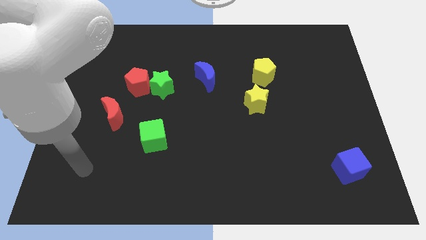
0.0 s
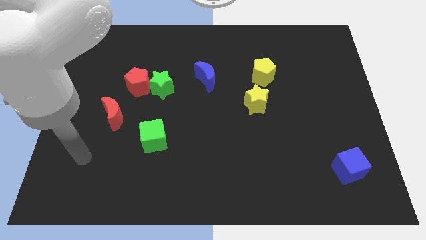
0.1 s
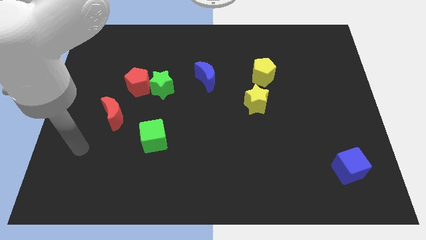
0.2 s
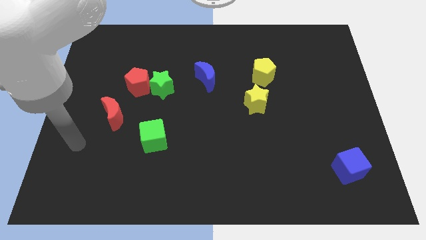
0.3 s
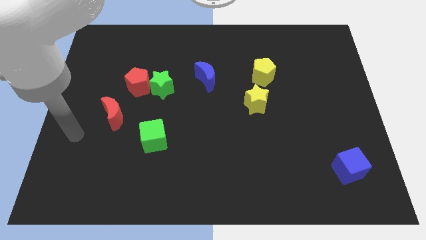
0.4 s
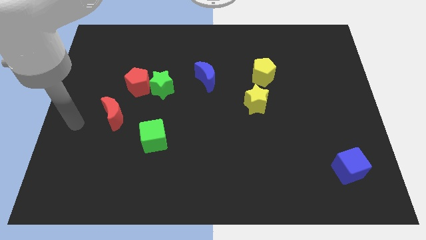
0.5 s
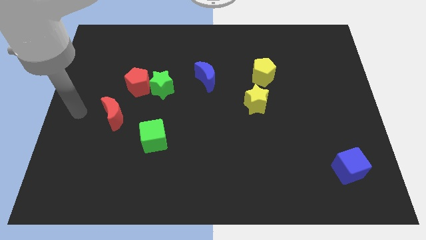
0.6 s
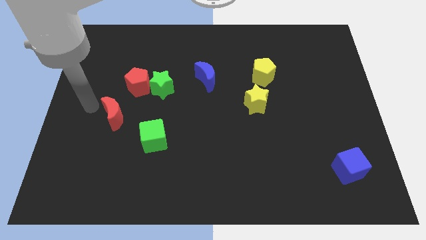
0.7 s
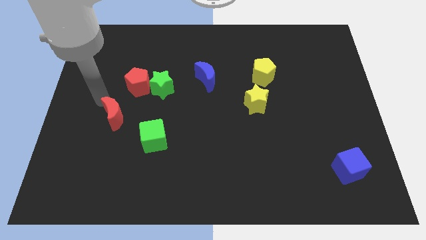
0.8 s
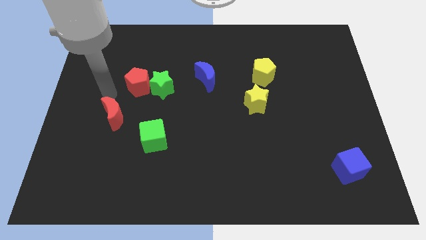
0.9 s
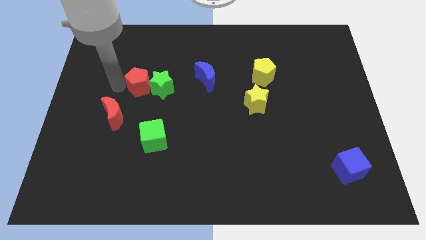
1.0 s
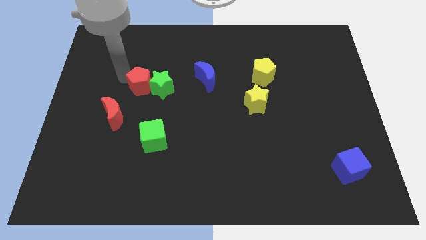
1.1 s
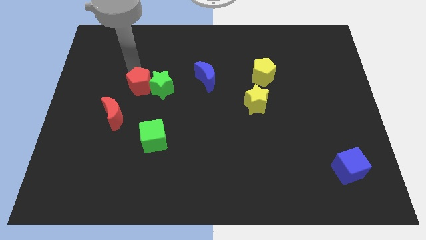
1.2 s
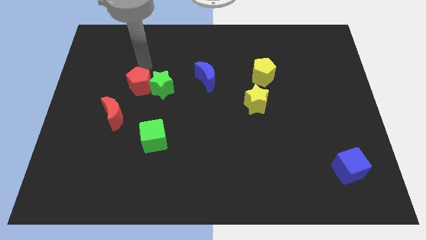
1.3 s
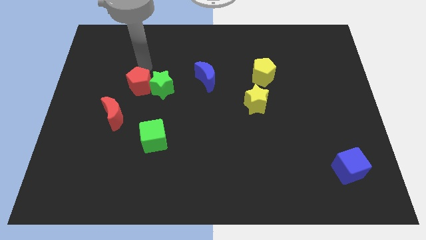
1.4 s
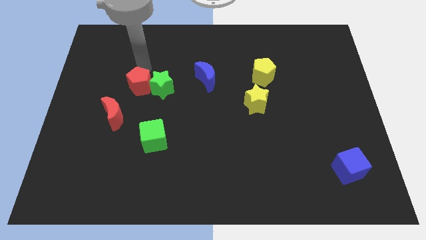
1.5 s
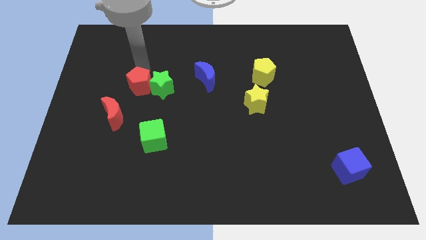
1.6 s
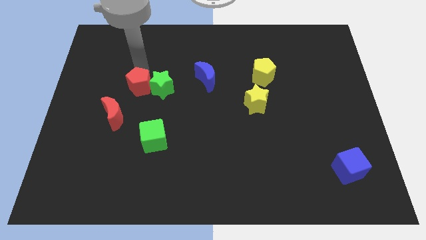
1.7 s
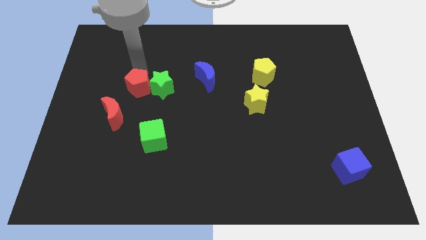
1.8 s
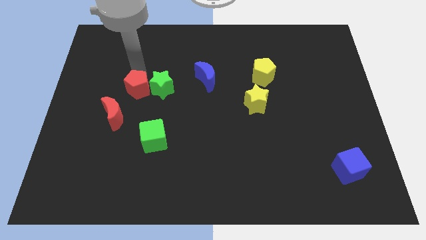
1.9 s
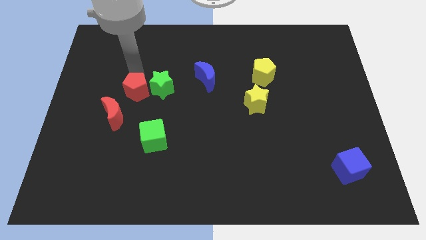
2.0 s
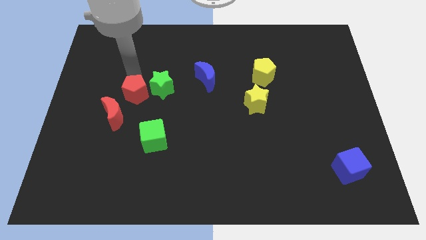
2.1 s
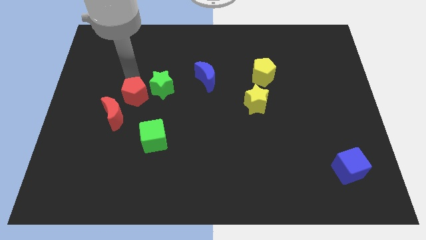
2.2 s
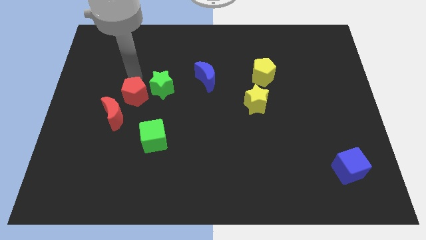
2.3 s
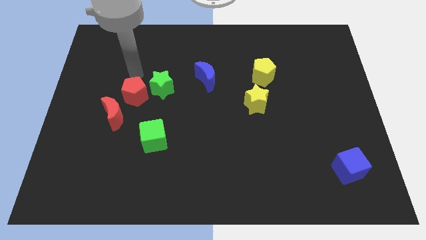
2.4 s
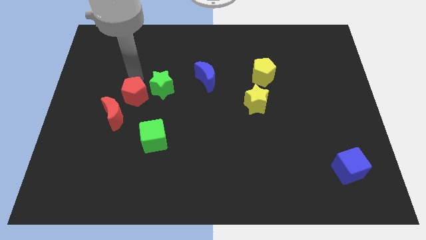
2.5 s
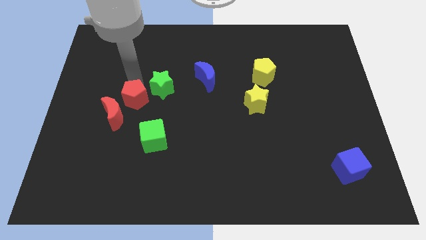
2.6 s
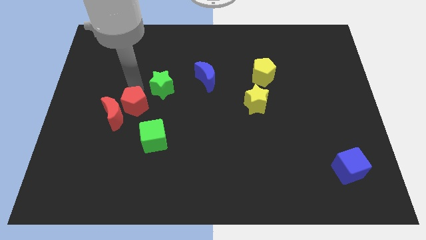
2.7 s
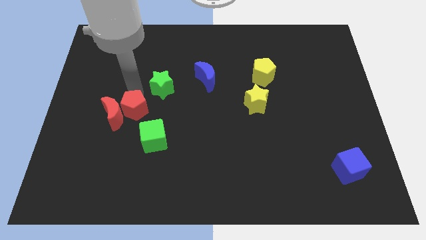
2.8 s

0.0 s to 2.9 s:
move the red pentagon downwards a little bit

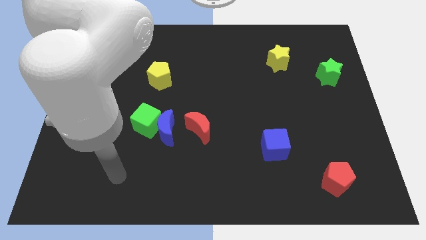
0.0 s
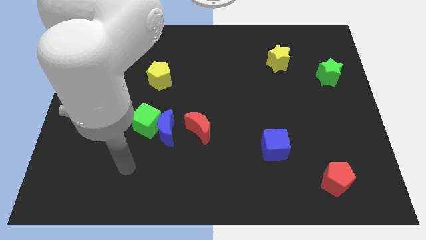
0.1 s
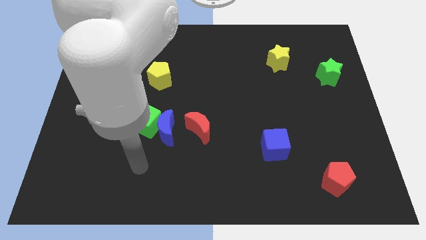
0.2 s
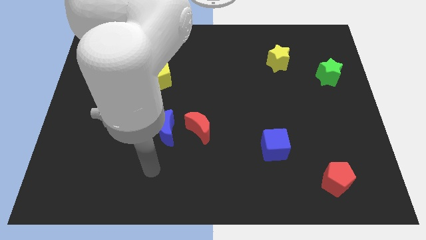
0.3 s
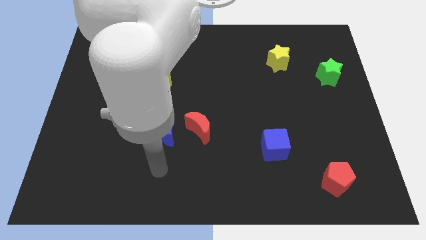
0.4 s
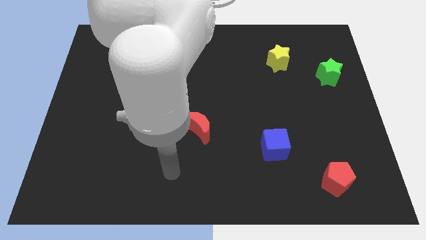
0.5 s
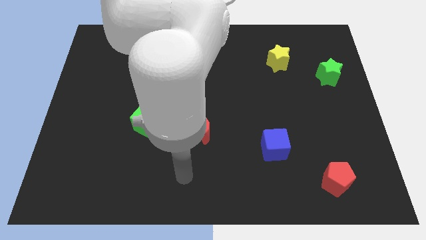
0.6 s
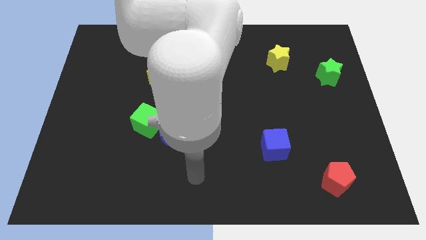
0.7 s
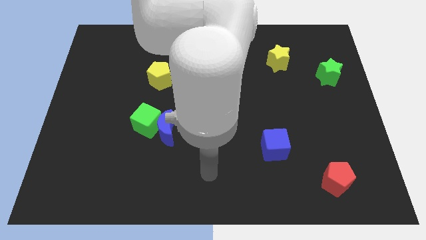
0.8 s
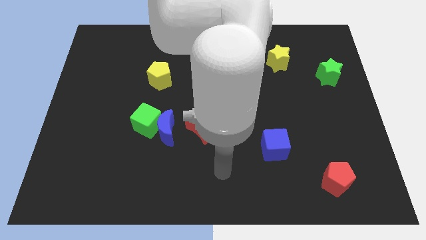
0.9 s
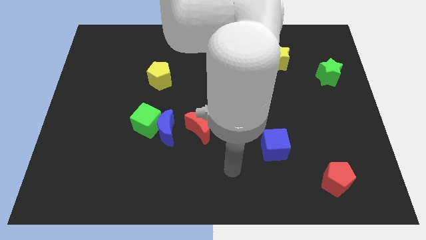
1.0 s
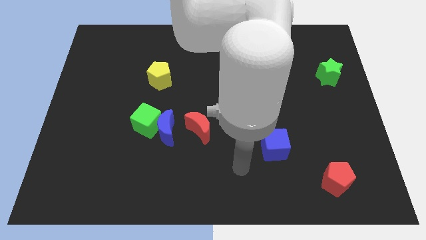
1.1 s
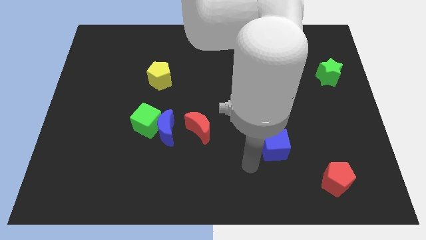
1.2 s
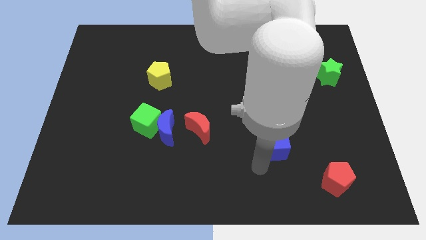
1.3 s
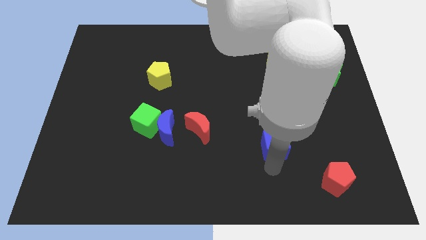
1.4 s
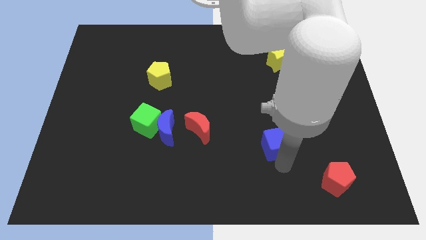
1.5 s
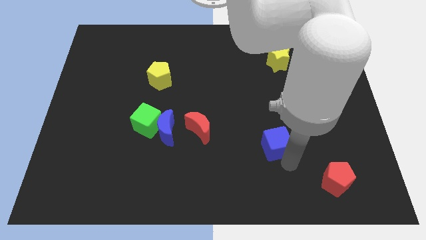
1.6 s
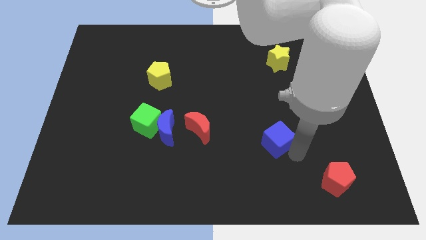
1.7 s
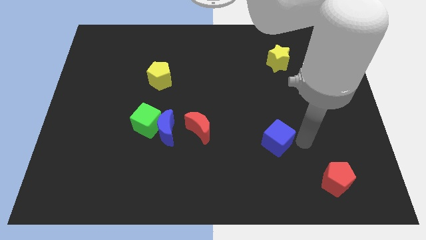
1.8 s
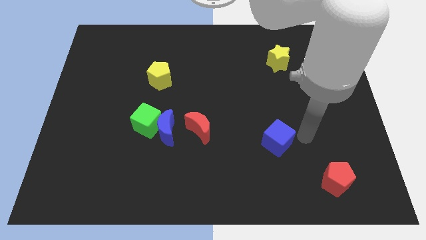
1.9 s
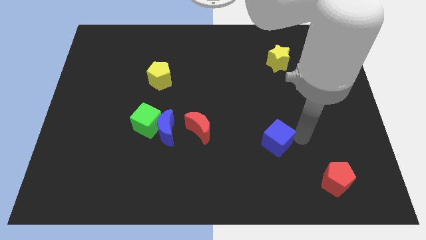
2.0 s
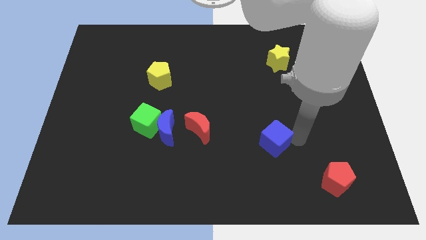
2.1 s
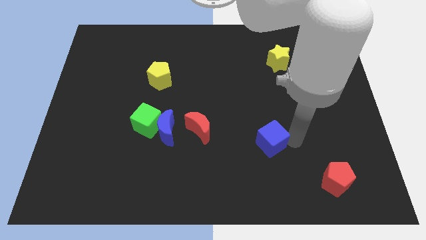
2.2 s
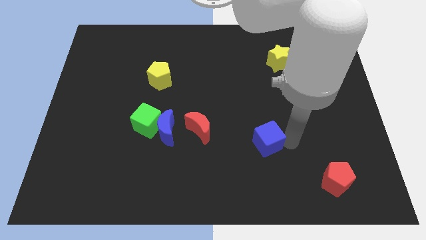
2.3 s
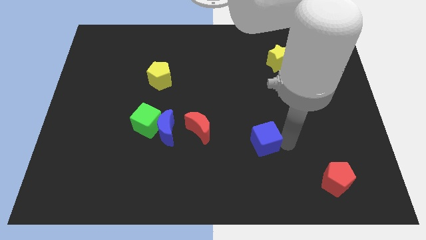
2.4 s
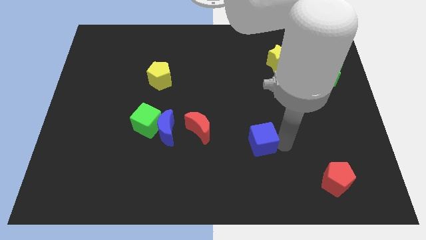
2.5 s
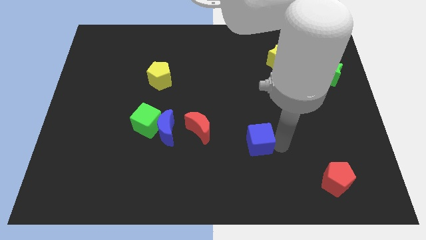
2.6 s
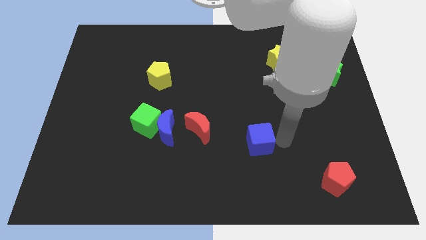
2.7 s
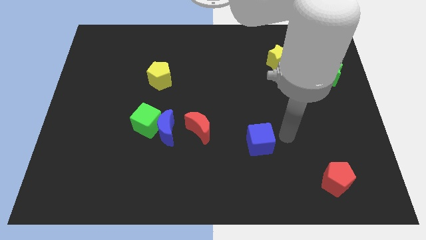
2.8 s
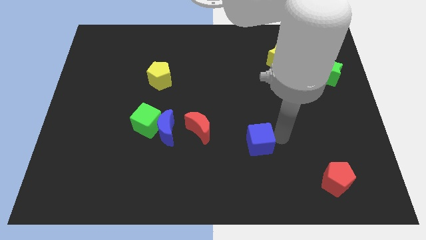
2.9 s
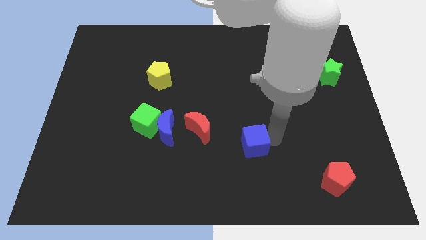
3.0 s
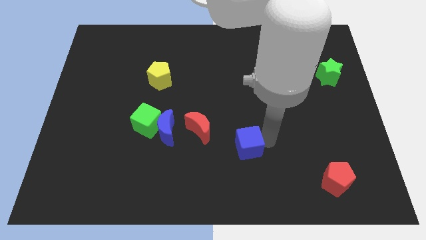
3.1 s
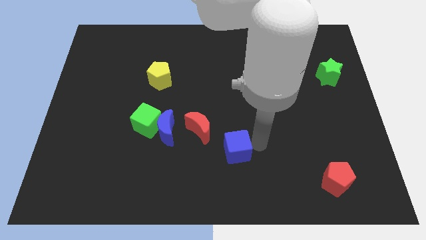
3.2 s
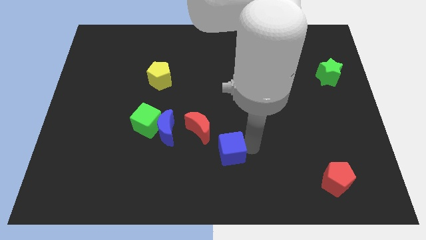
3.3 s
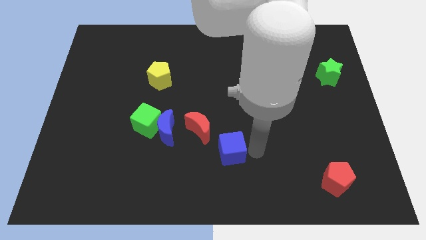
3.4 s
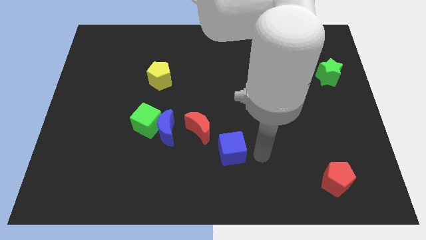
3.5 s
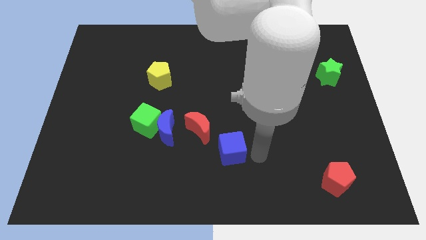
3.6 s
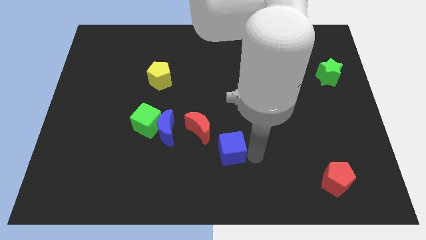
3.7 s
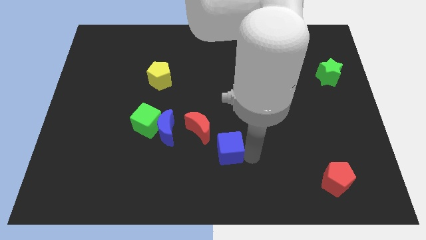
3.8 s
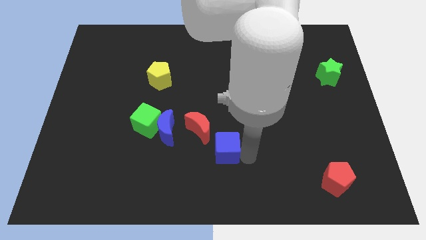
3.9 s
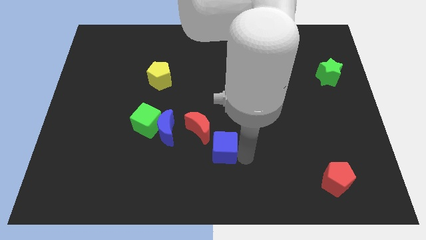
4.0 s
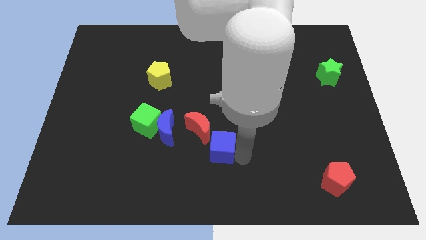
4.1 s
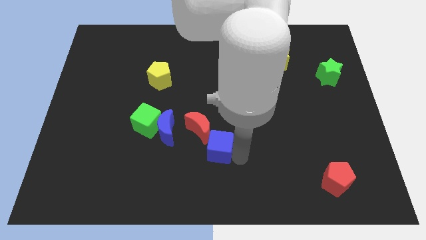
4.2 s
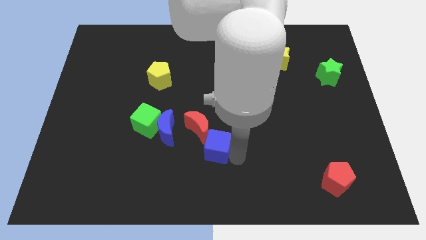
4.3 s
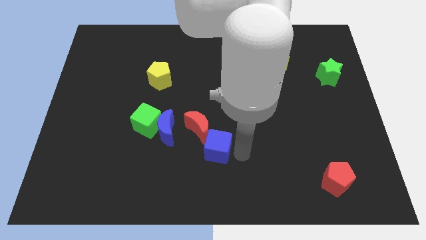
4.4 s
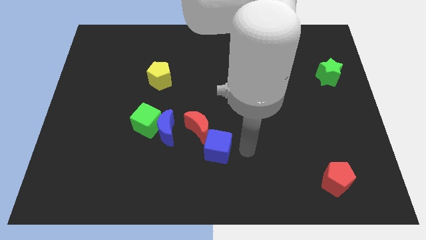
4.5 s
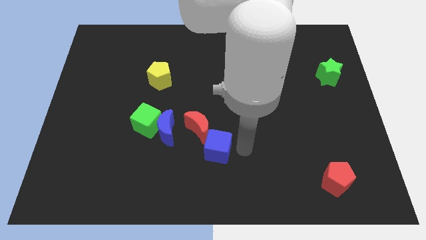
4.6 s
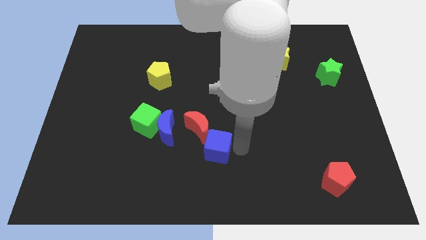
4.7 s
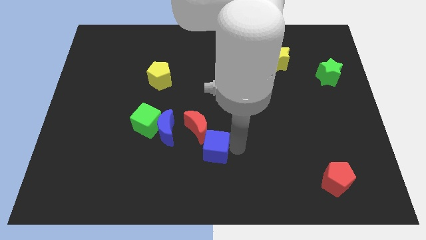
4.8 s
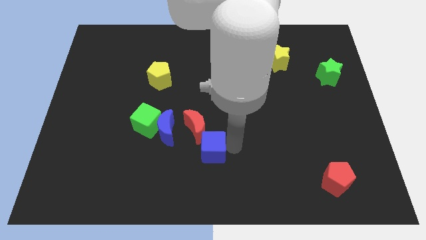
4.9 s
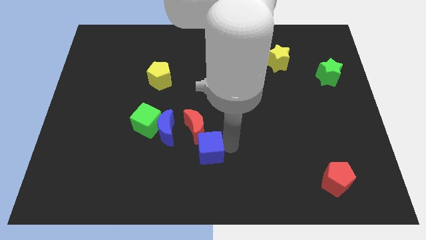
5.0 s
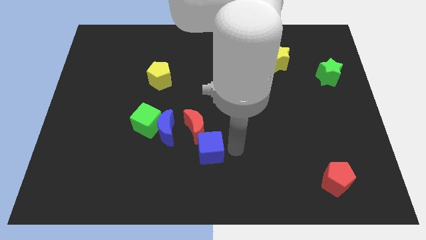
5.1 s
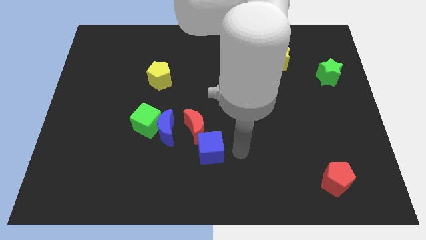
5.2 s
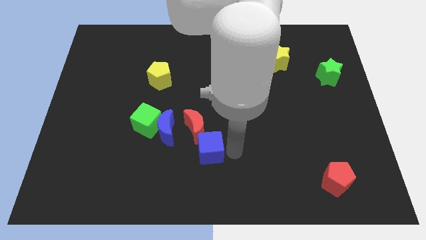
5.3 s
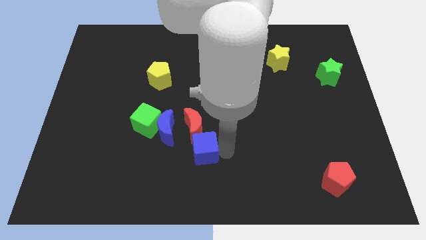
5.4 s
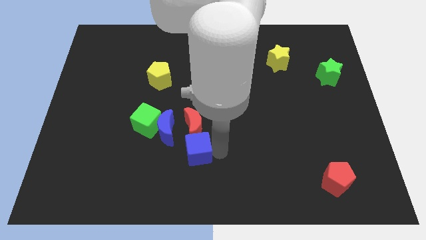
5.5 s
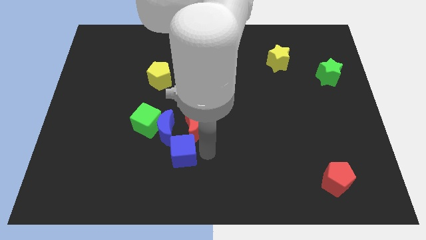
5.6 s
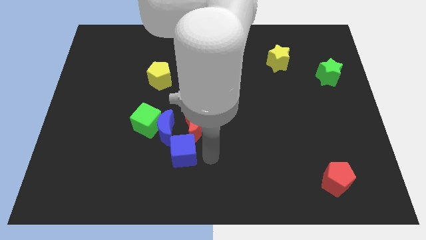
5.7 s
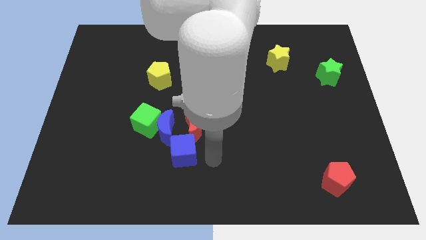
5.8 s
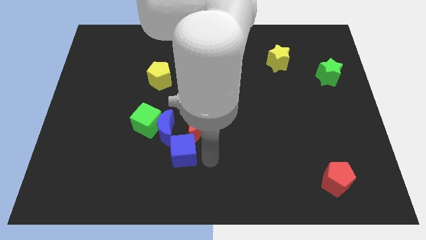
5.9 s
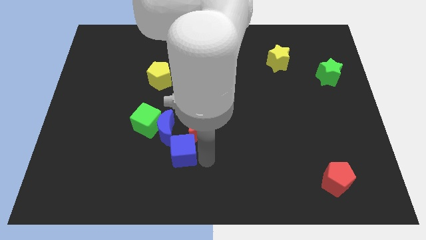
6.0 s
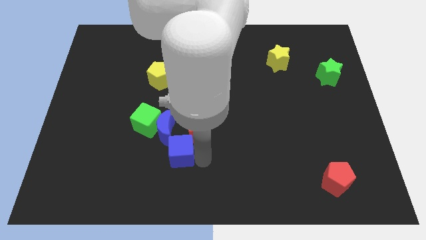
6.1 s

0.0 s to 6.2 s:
slide the blue cube to the left
